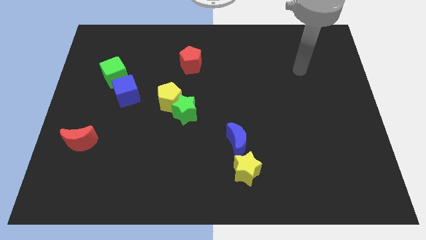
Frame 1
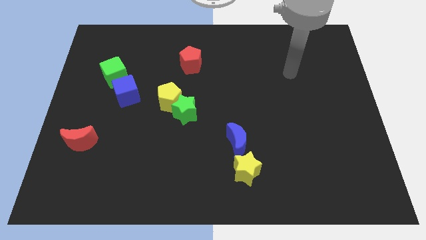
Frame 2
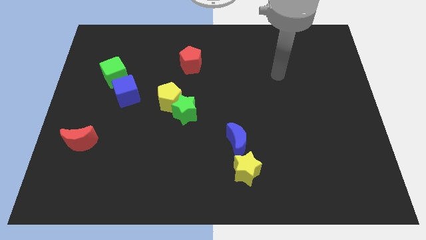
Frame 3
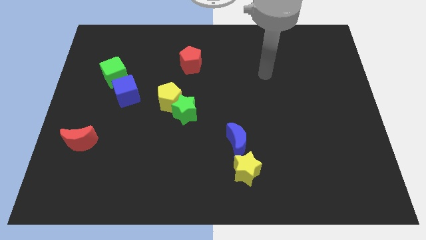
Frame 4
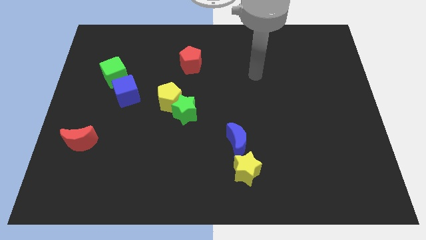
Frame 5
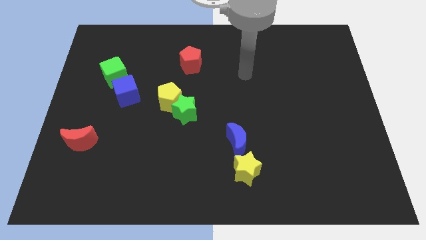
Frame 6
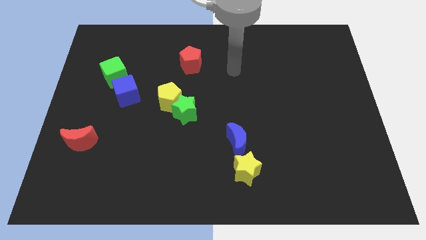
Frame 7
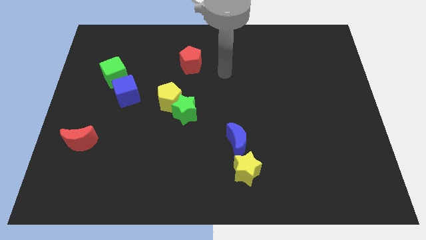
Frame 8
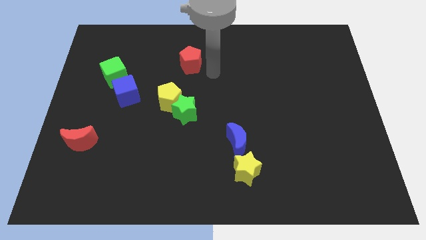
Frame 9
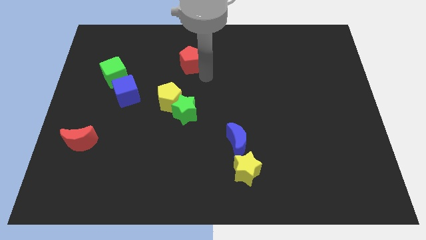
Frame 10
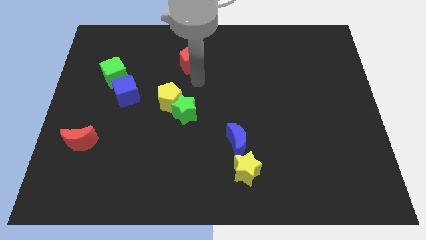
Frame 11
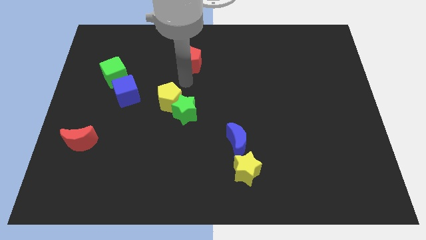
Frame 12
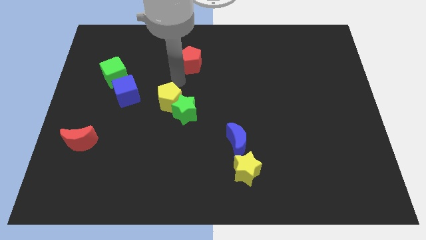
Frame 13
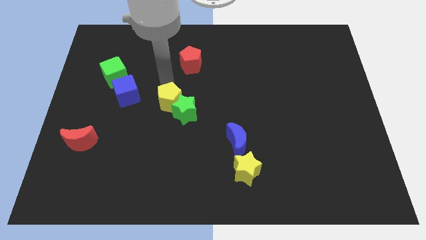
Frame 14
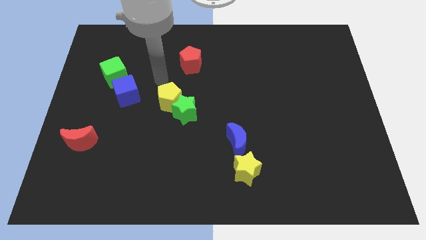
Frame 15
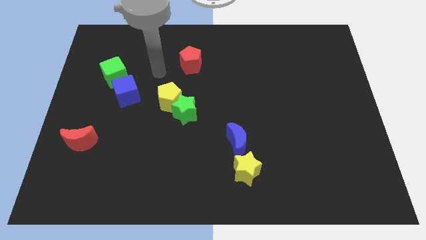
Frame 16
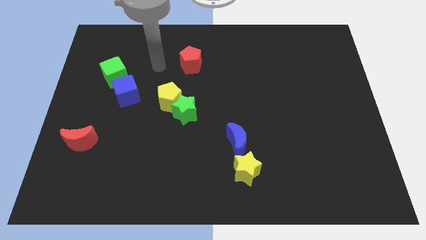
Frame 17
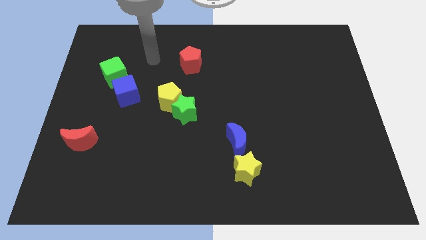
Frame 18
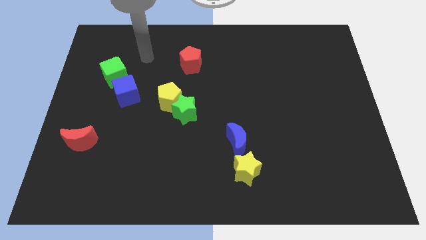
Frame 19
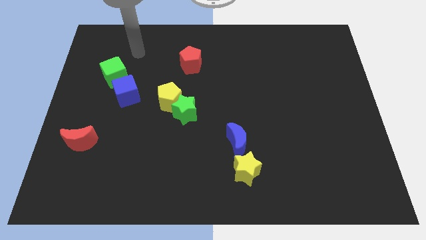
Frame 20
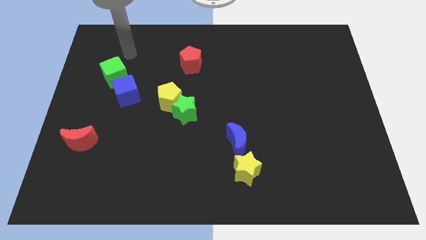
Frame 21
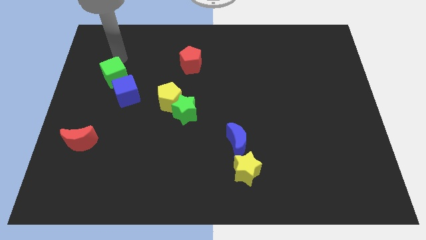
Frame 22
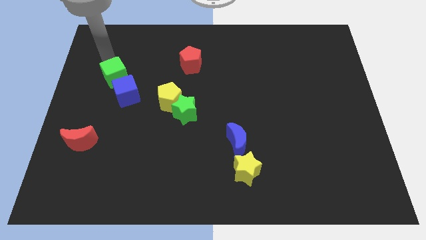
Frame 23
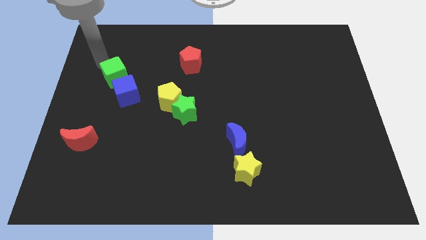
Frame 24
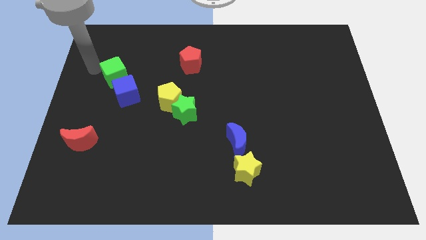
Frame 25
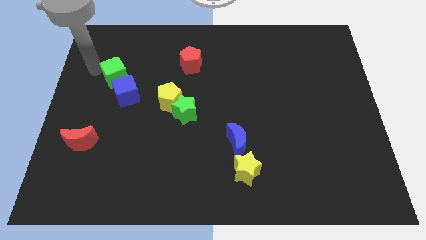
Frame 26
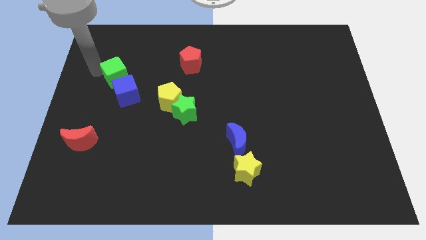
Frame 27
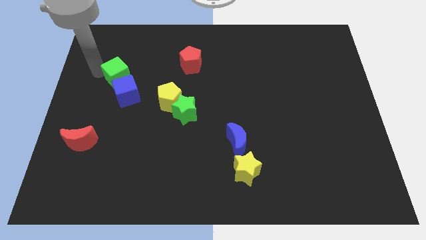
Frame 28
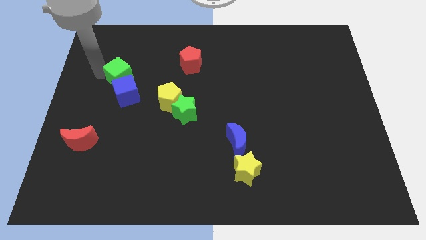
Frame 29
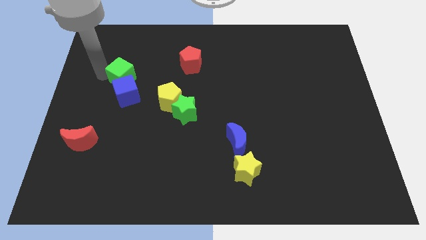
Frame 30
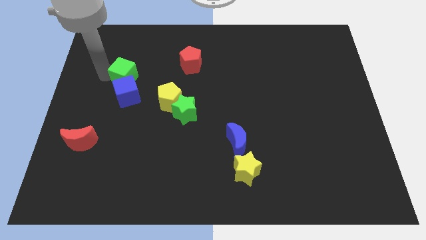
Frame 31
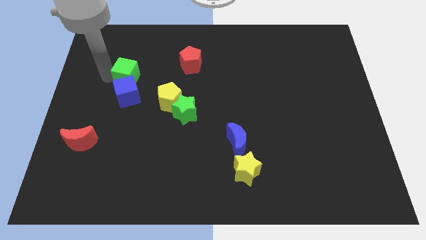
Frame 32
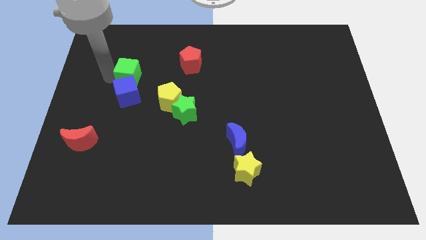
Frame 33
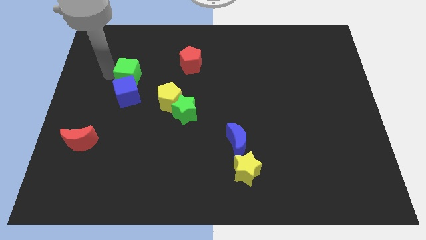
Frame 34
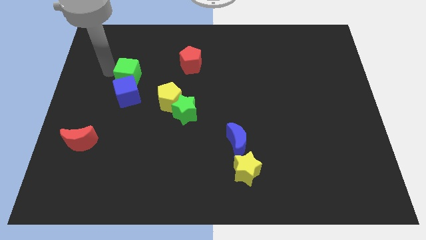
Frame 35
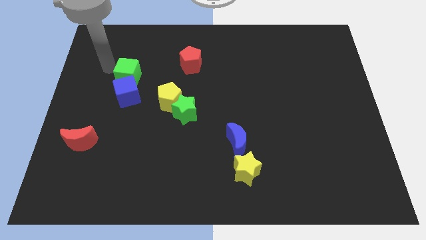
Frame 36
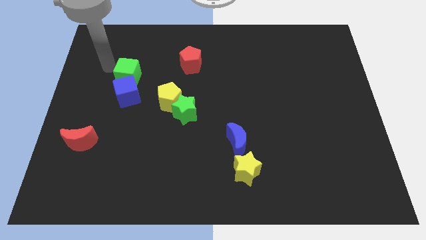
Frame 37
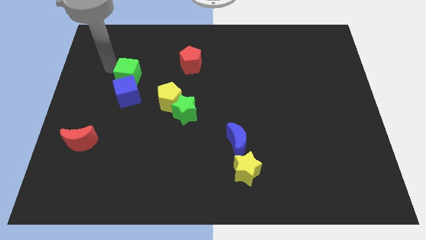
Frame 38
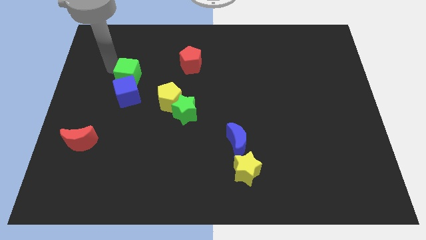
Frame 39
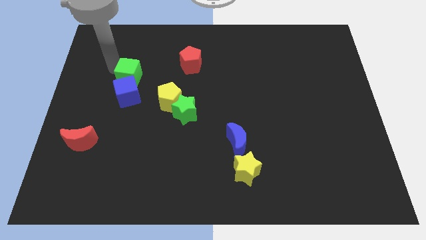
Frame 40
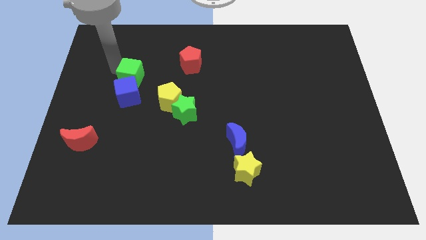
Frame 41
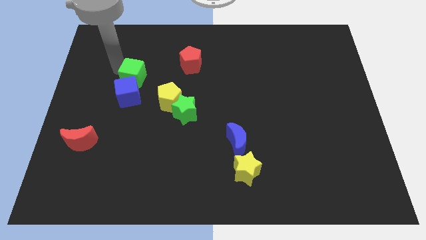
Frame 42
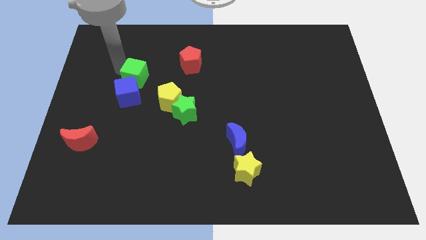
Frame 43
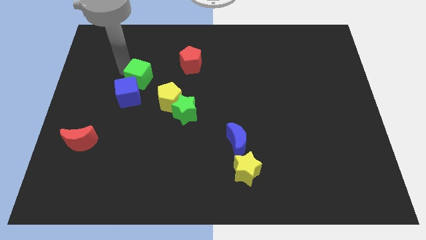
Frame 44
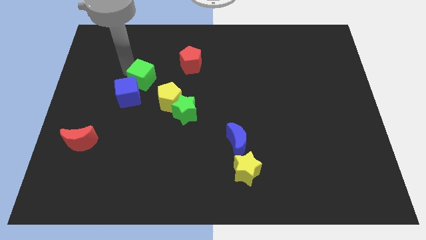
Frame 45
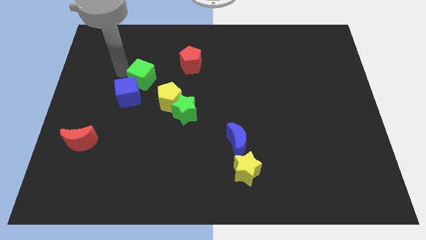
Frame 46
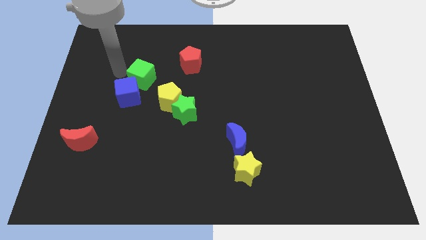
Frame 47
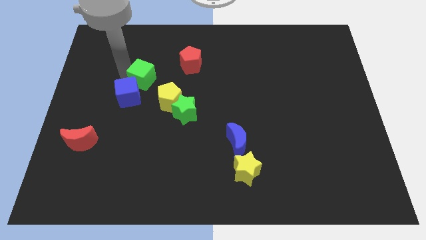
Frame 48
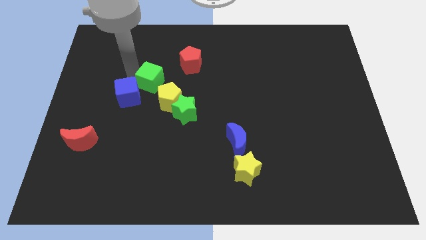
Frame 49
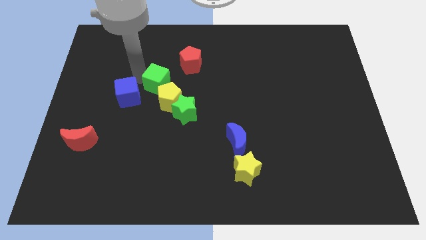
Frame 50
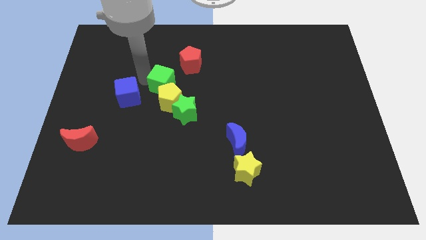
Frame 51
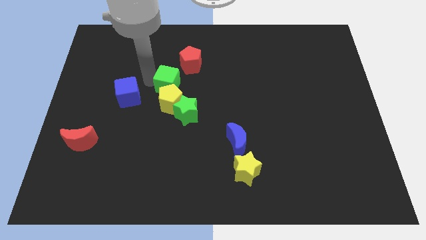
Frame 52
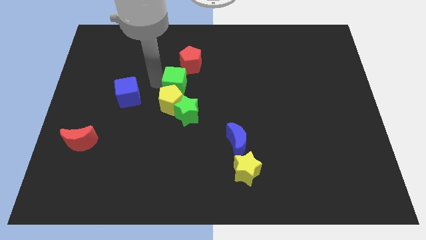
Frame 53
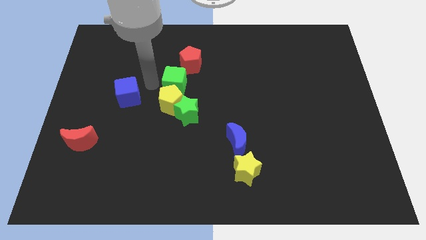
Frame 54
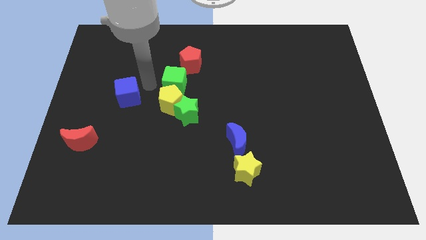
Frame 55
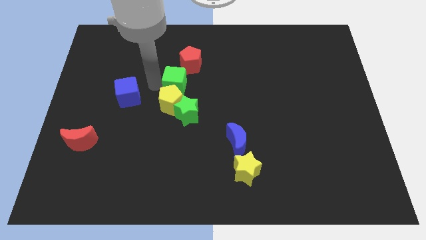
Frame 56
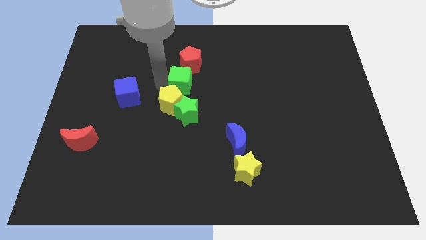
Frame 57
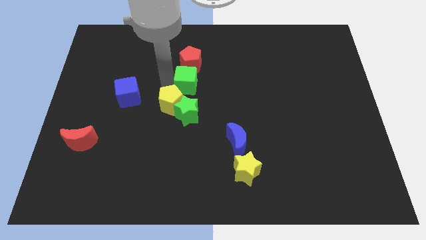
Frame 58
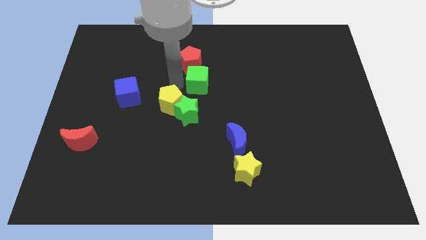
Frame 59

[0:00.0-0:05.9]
slide the green cube right

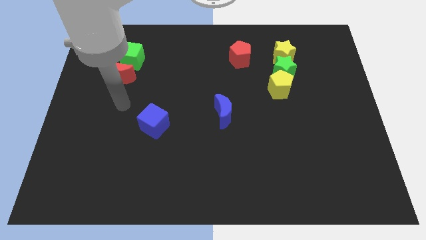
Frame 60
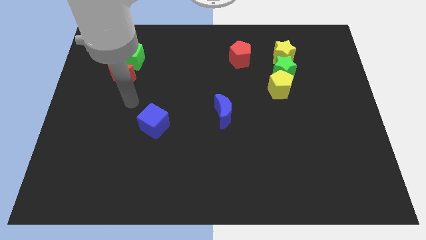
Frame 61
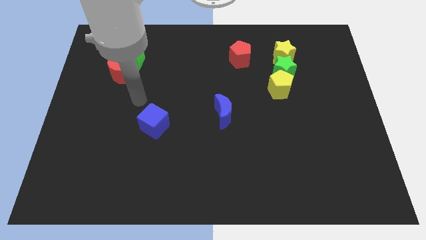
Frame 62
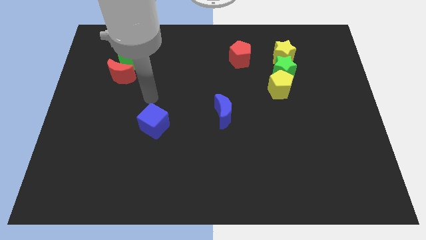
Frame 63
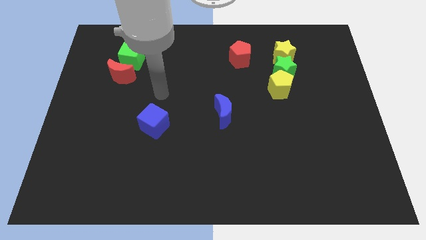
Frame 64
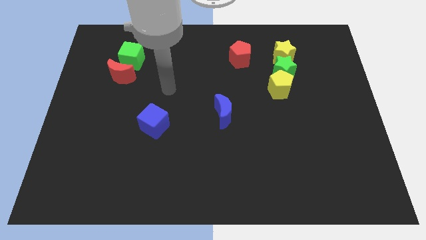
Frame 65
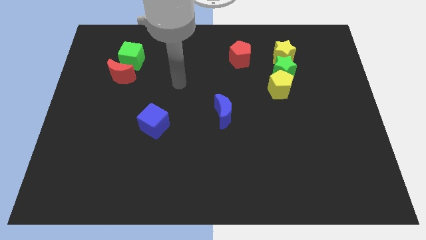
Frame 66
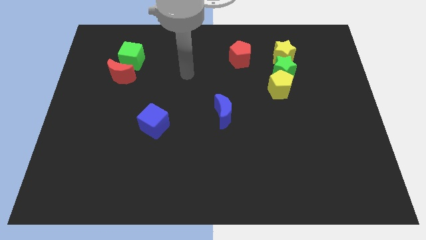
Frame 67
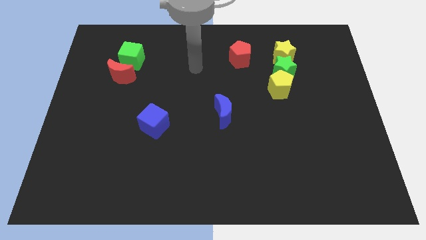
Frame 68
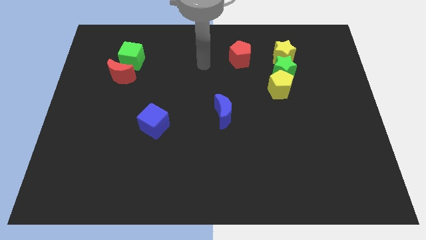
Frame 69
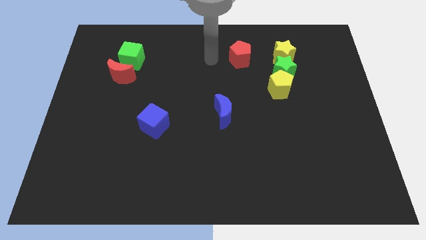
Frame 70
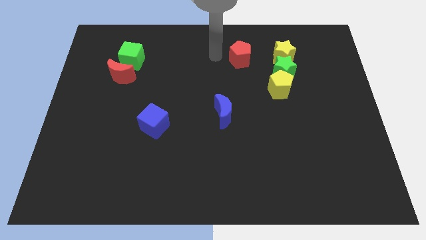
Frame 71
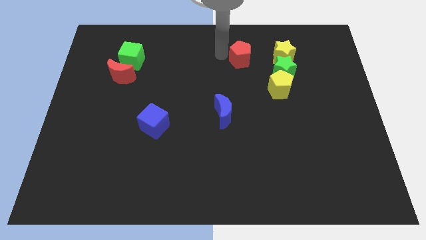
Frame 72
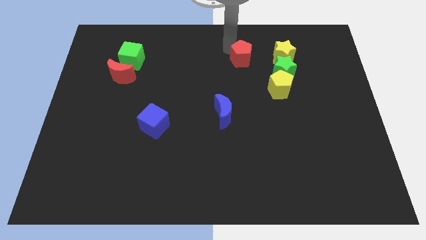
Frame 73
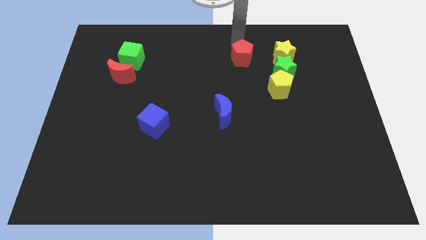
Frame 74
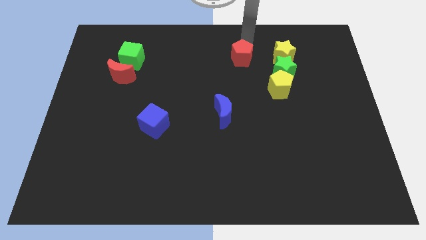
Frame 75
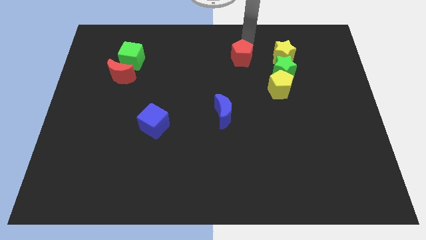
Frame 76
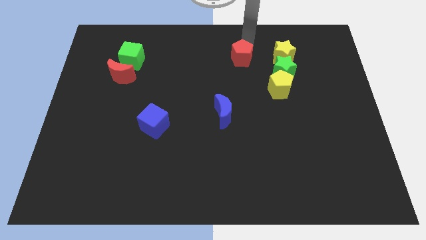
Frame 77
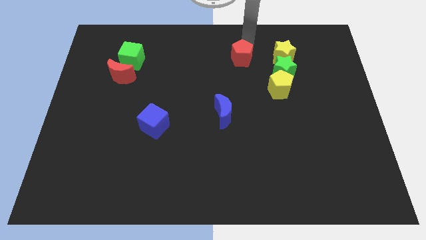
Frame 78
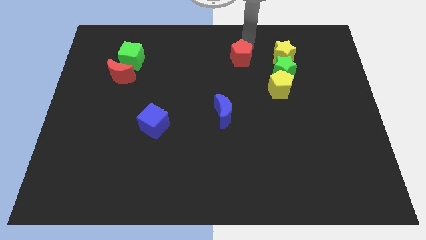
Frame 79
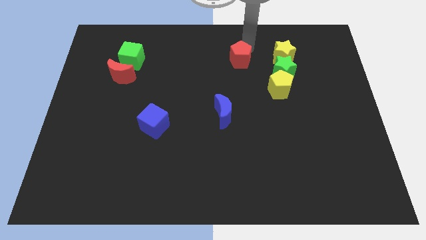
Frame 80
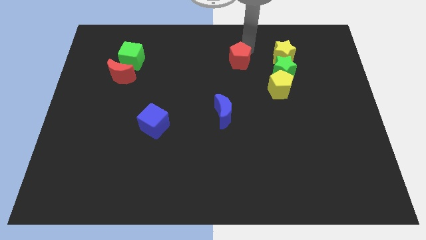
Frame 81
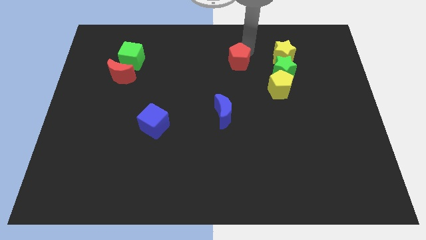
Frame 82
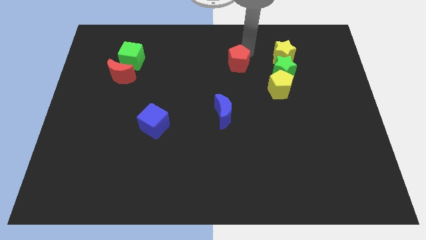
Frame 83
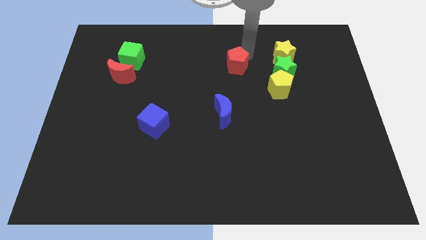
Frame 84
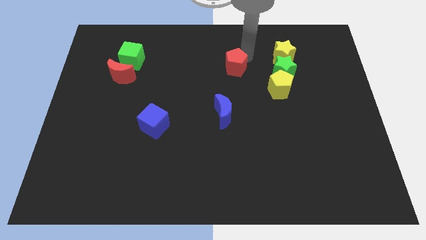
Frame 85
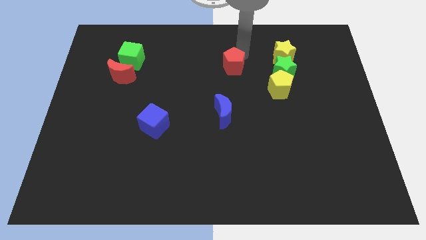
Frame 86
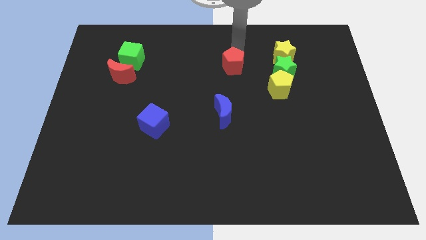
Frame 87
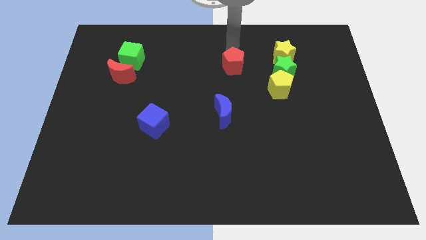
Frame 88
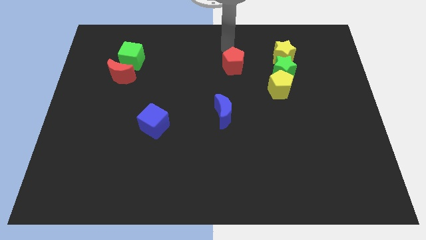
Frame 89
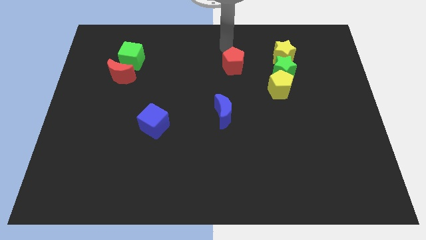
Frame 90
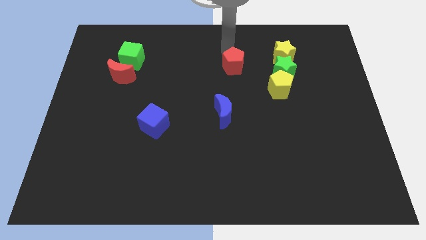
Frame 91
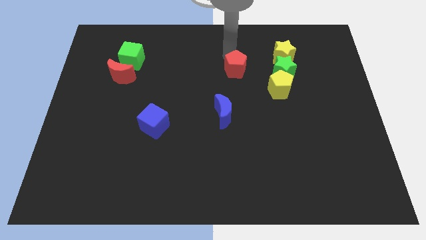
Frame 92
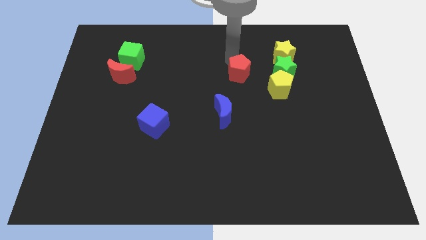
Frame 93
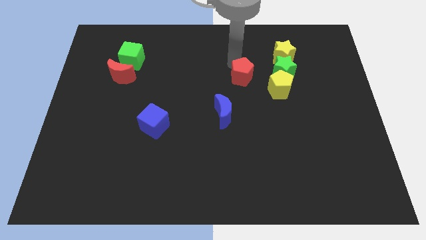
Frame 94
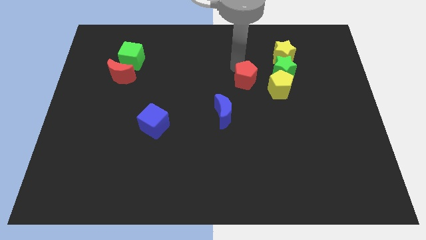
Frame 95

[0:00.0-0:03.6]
slide the red pentagon a bit down
